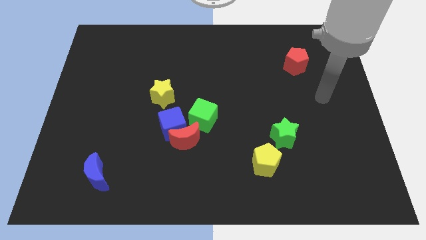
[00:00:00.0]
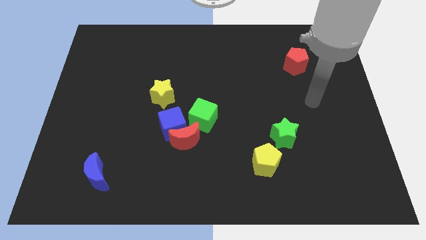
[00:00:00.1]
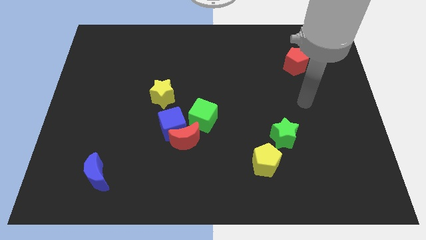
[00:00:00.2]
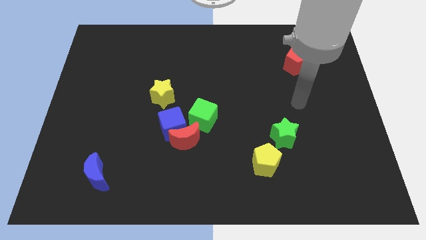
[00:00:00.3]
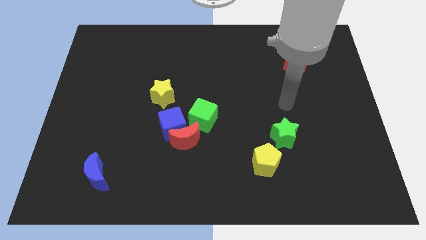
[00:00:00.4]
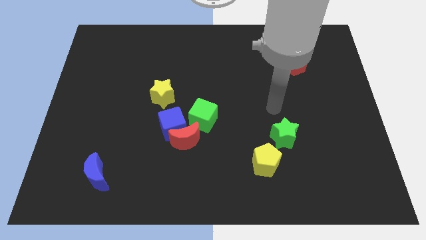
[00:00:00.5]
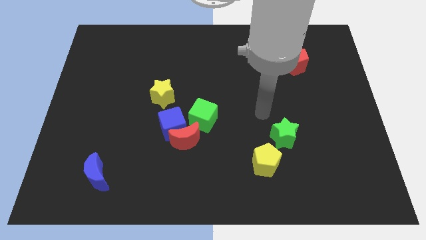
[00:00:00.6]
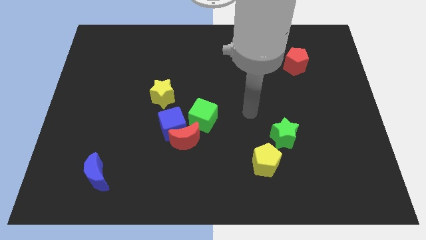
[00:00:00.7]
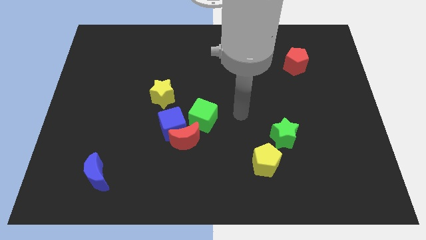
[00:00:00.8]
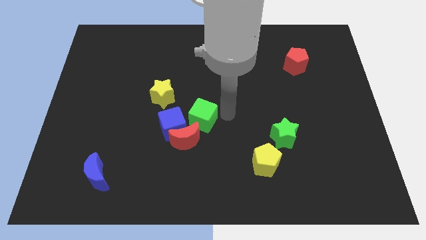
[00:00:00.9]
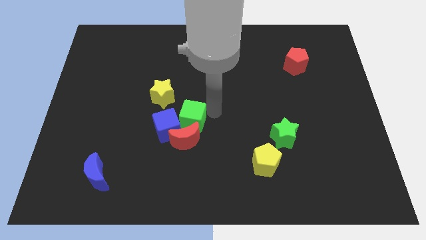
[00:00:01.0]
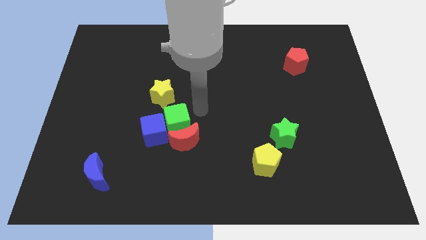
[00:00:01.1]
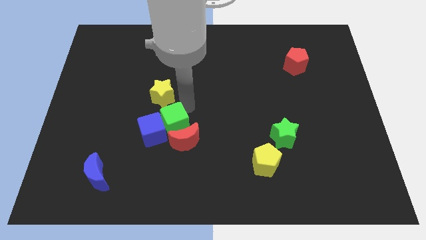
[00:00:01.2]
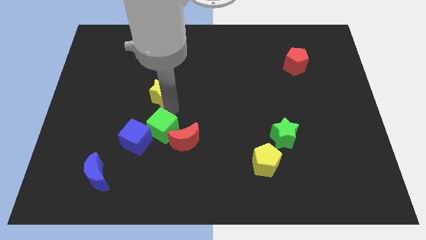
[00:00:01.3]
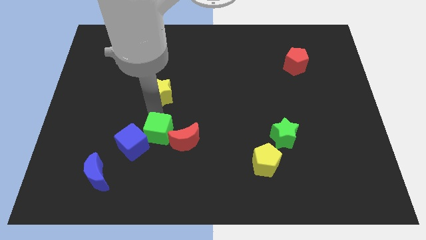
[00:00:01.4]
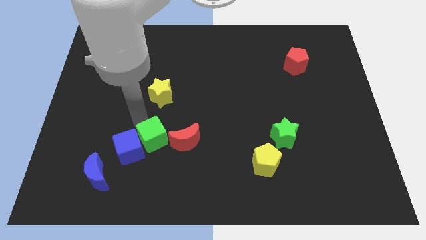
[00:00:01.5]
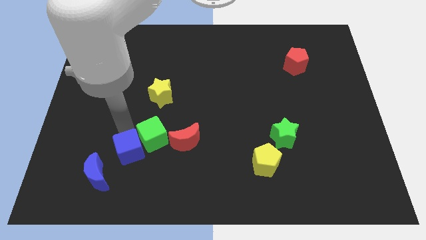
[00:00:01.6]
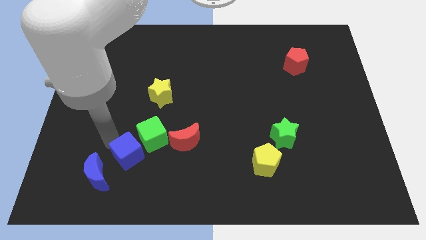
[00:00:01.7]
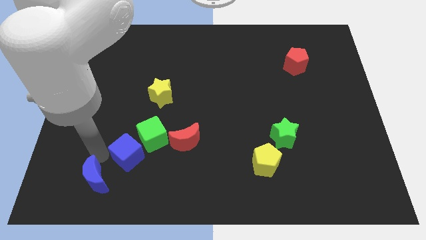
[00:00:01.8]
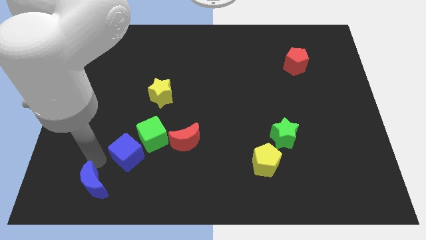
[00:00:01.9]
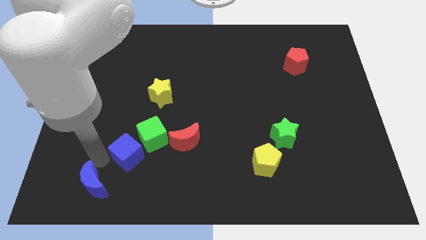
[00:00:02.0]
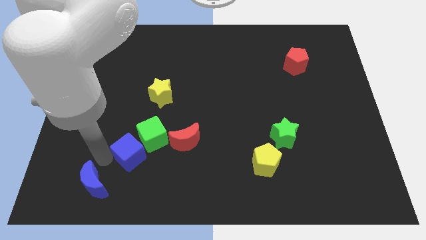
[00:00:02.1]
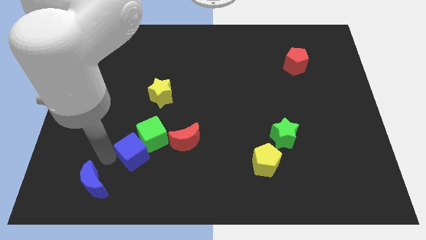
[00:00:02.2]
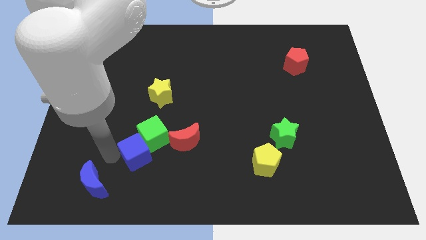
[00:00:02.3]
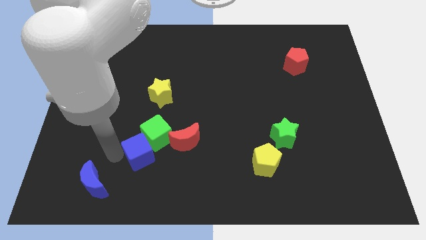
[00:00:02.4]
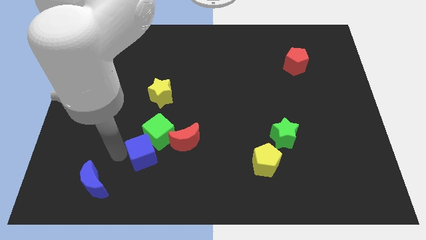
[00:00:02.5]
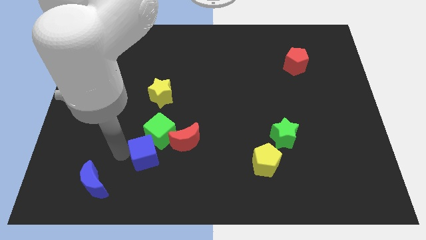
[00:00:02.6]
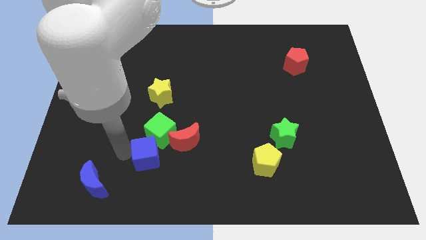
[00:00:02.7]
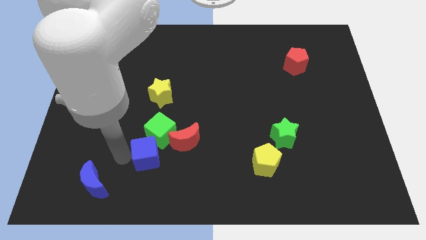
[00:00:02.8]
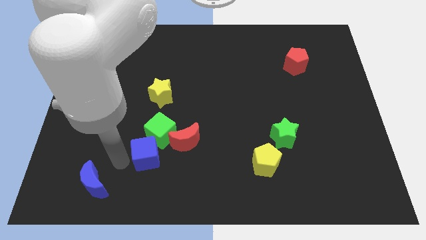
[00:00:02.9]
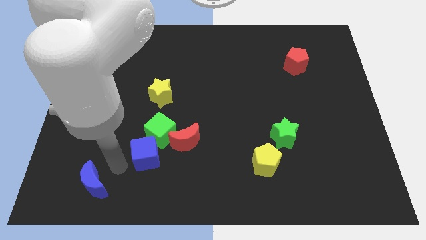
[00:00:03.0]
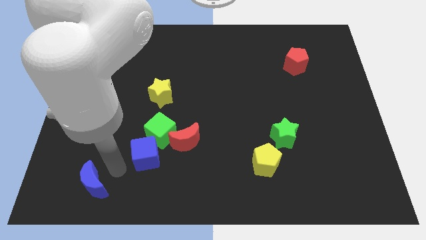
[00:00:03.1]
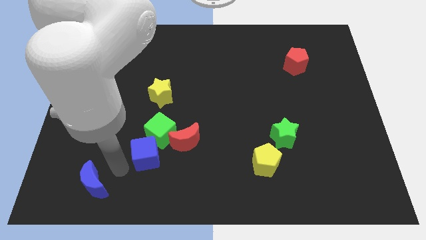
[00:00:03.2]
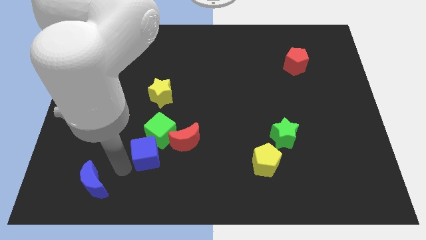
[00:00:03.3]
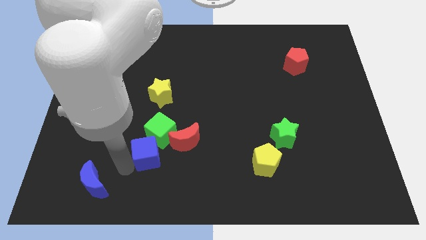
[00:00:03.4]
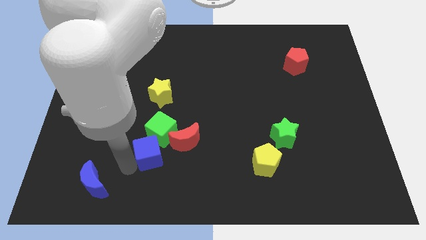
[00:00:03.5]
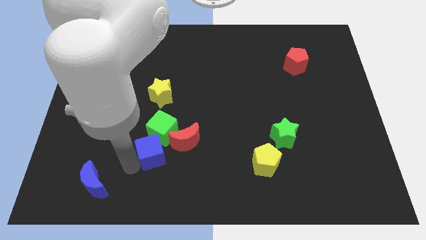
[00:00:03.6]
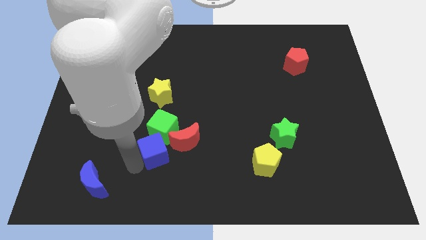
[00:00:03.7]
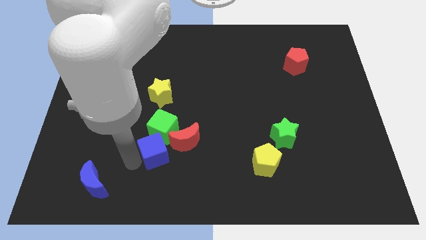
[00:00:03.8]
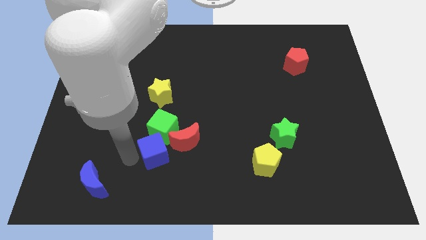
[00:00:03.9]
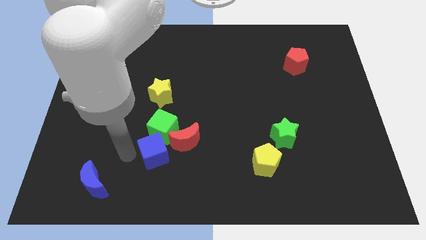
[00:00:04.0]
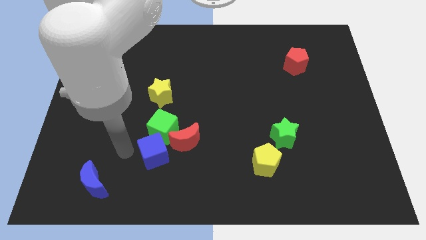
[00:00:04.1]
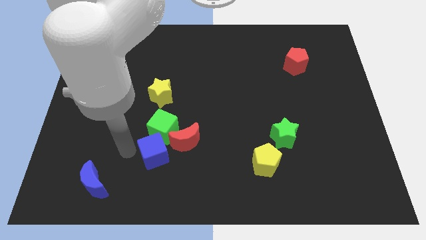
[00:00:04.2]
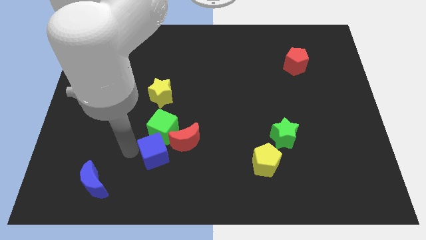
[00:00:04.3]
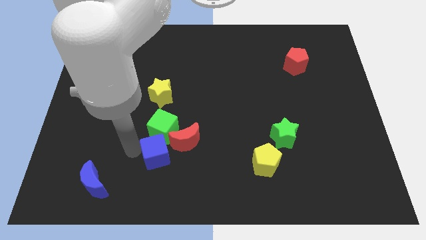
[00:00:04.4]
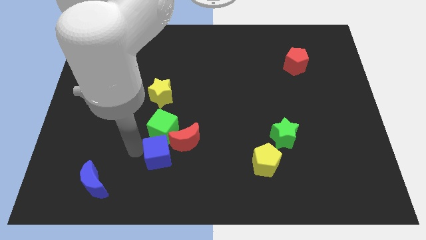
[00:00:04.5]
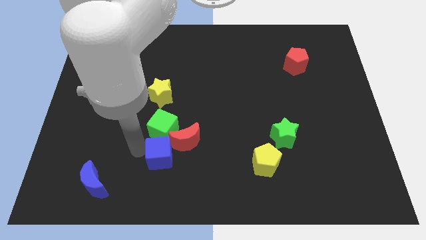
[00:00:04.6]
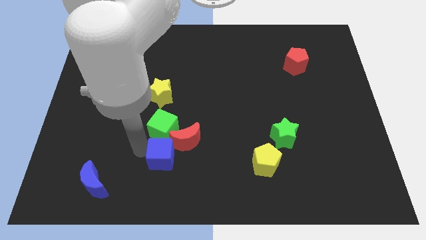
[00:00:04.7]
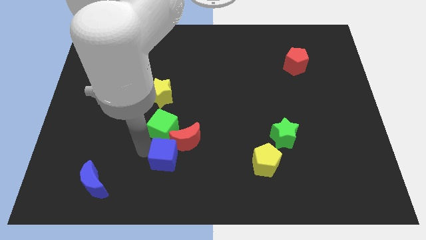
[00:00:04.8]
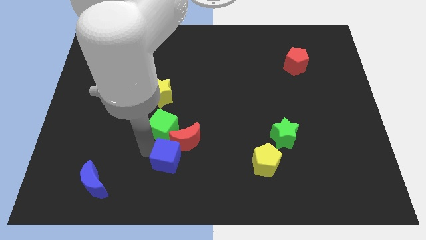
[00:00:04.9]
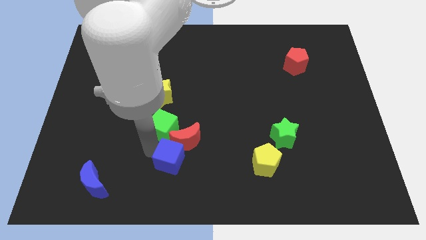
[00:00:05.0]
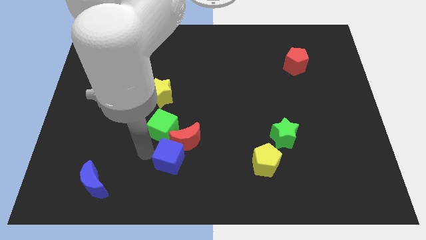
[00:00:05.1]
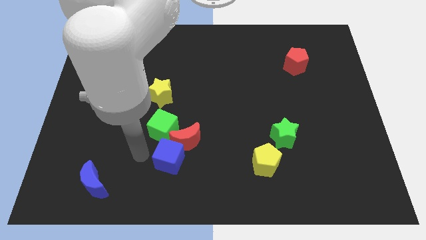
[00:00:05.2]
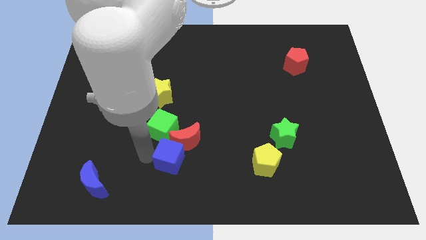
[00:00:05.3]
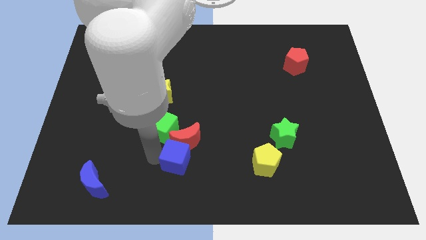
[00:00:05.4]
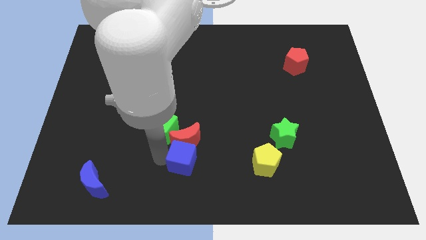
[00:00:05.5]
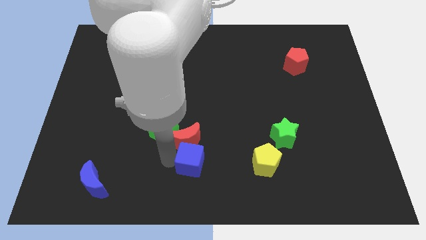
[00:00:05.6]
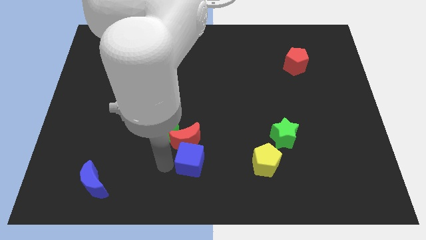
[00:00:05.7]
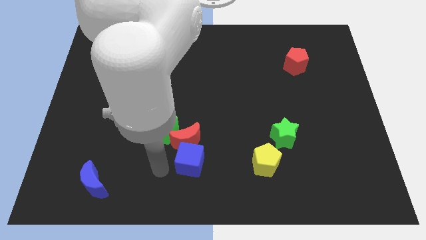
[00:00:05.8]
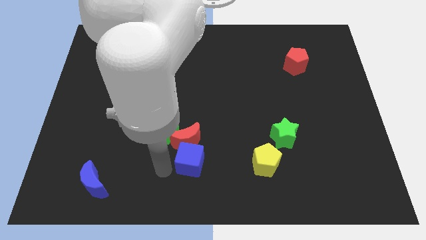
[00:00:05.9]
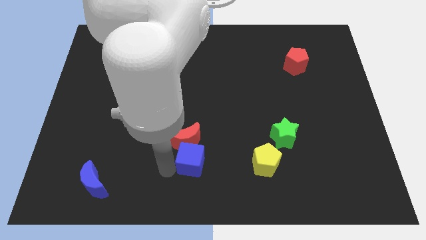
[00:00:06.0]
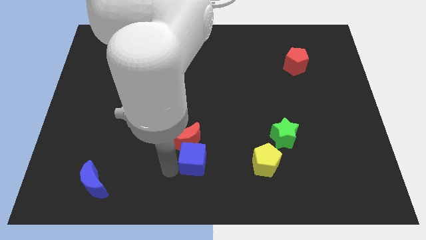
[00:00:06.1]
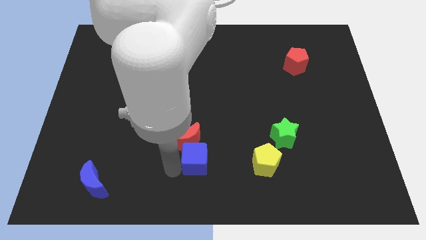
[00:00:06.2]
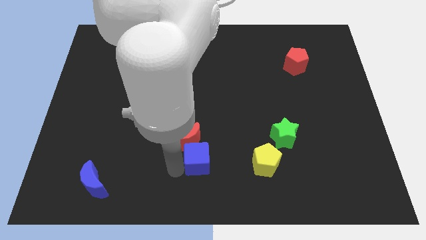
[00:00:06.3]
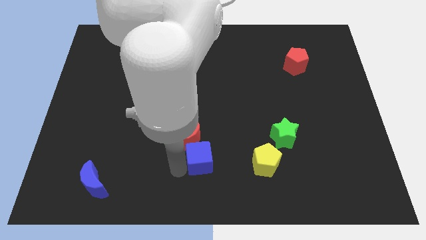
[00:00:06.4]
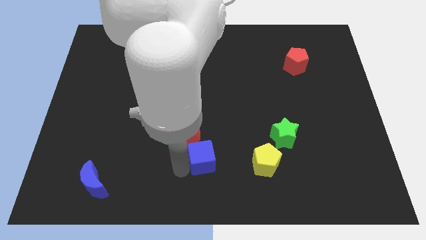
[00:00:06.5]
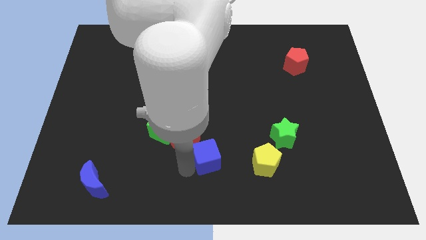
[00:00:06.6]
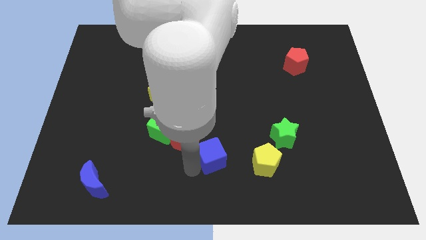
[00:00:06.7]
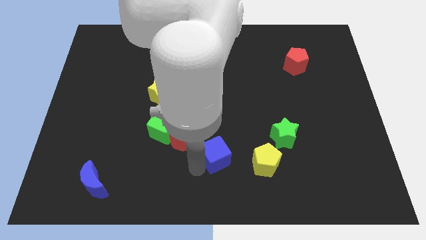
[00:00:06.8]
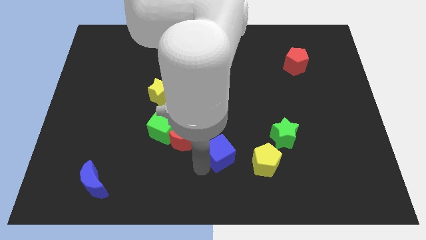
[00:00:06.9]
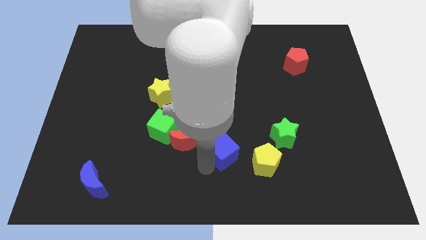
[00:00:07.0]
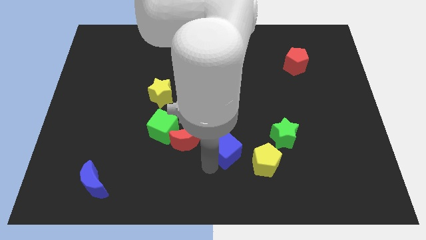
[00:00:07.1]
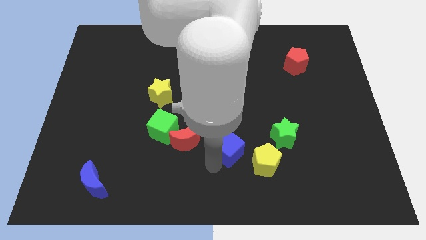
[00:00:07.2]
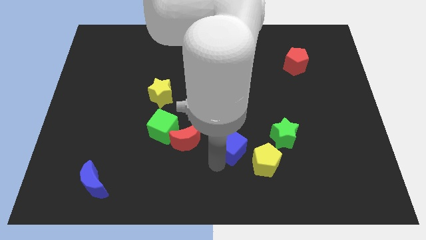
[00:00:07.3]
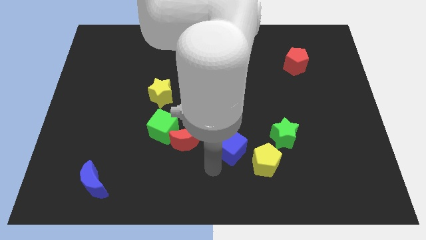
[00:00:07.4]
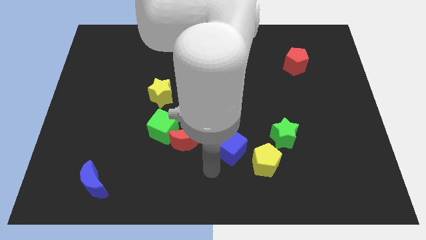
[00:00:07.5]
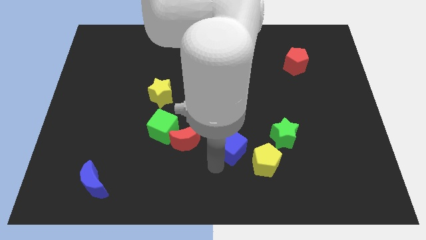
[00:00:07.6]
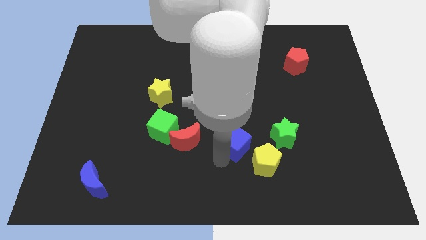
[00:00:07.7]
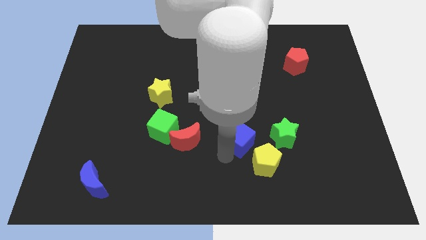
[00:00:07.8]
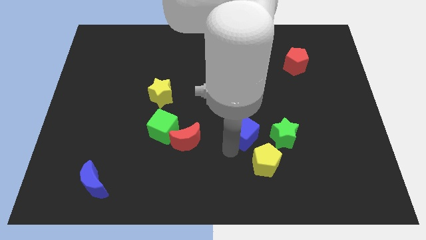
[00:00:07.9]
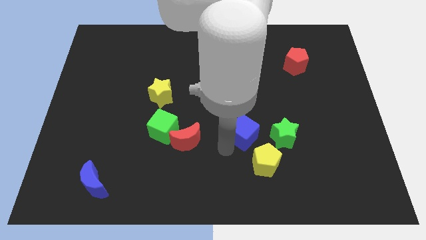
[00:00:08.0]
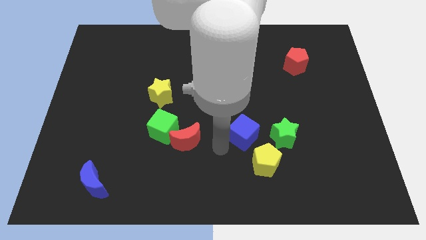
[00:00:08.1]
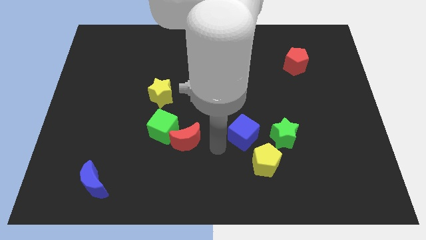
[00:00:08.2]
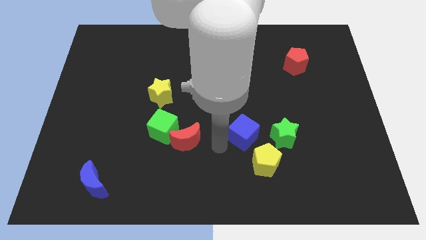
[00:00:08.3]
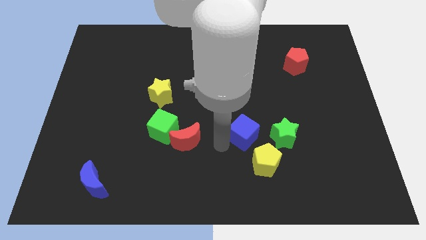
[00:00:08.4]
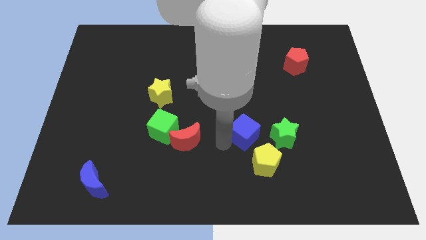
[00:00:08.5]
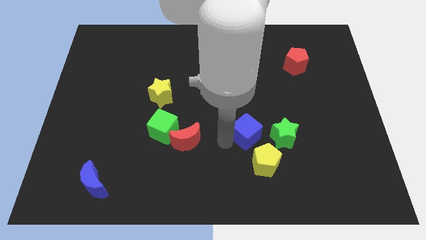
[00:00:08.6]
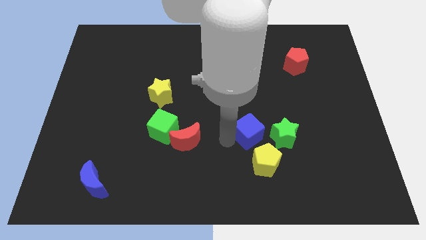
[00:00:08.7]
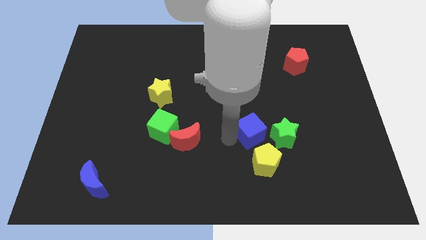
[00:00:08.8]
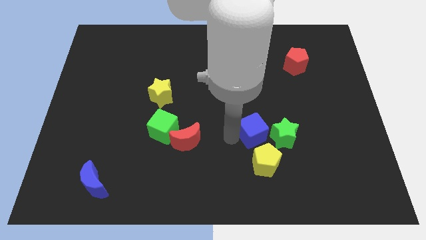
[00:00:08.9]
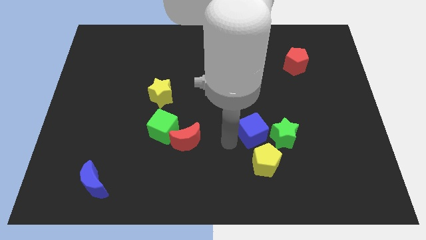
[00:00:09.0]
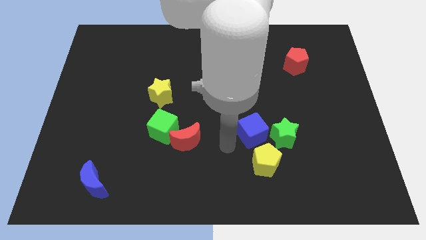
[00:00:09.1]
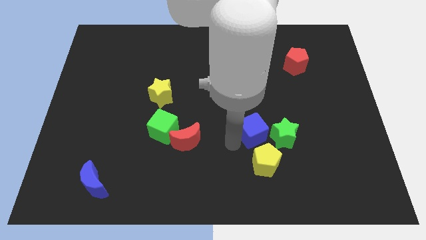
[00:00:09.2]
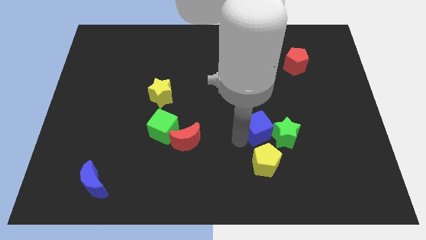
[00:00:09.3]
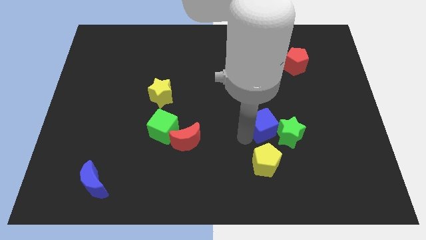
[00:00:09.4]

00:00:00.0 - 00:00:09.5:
slide the blue cube right
